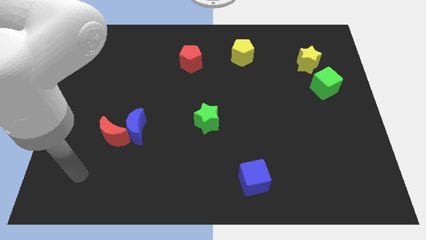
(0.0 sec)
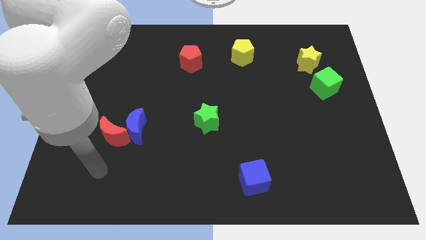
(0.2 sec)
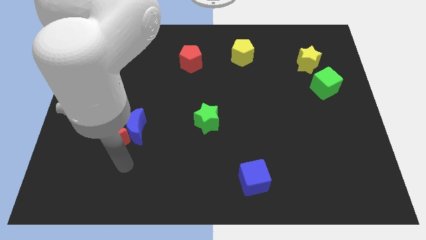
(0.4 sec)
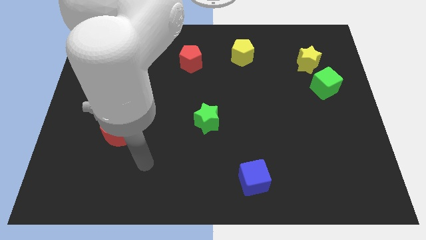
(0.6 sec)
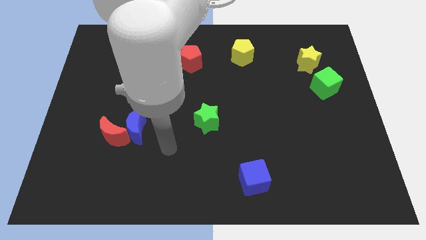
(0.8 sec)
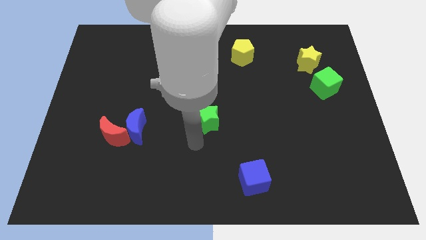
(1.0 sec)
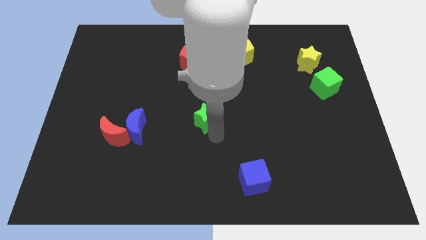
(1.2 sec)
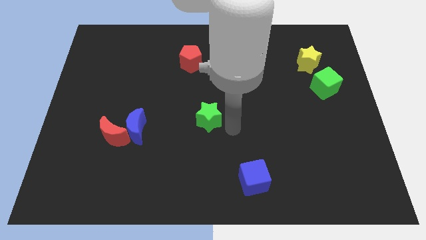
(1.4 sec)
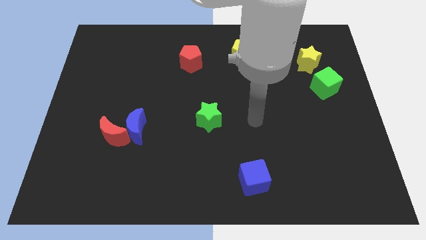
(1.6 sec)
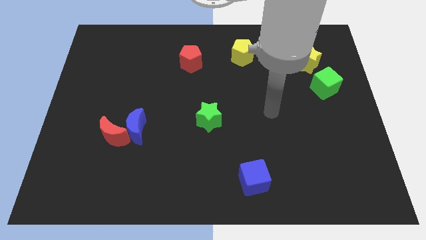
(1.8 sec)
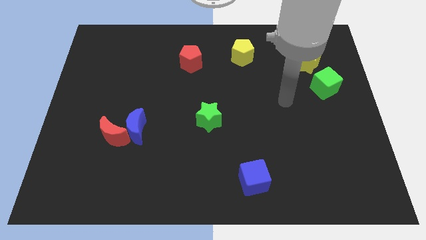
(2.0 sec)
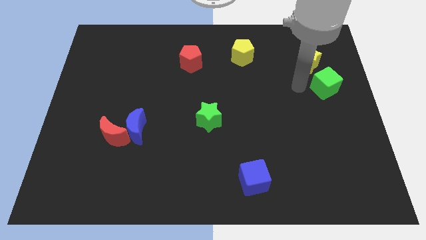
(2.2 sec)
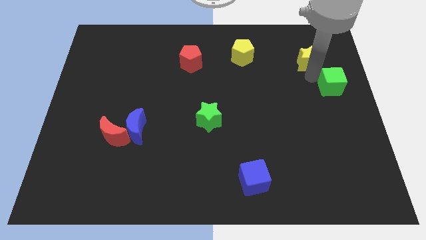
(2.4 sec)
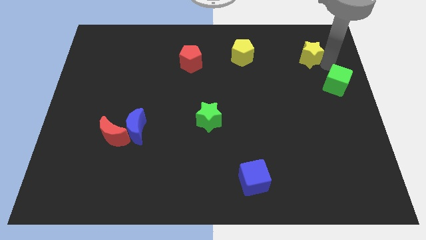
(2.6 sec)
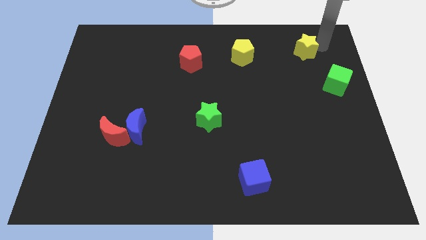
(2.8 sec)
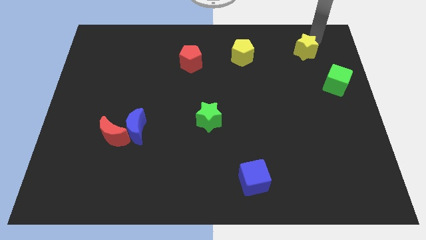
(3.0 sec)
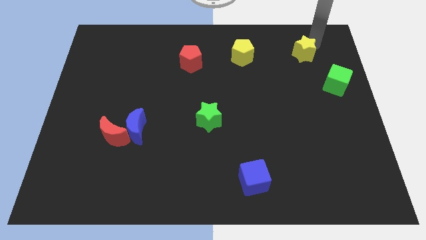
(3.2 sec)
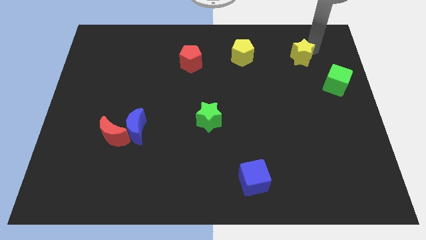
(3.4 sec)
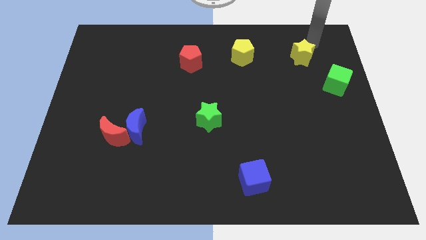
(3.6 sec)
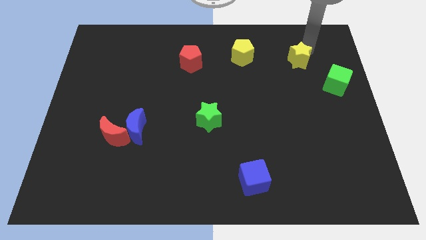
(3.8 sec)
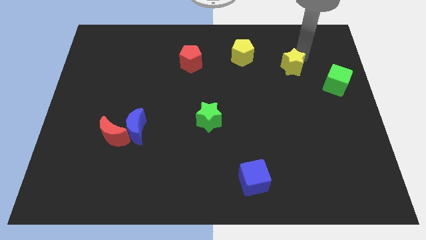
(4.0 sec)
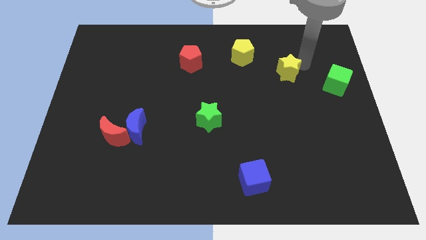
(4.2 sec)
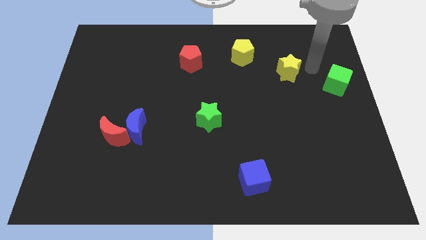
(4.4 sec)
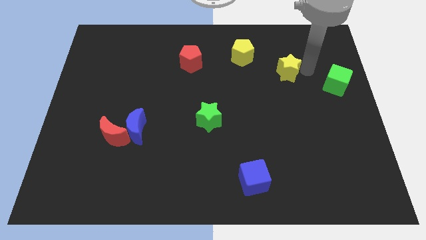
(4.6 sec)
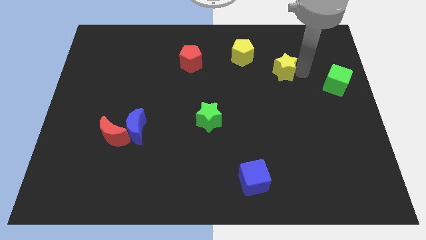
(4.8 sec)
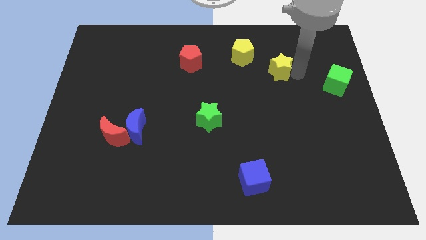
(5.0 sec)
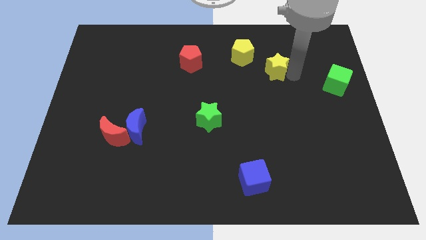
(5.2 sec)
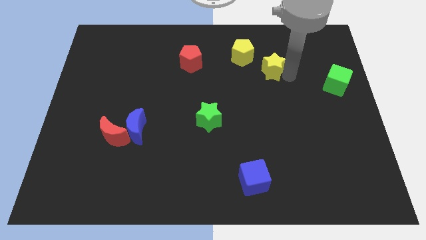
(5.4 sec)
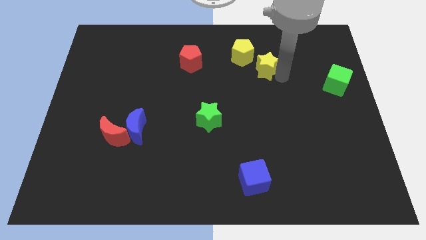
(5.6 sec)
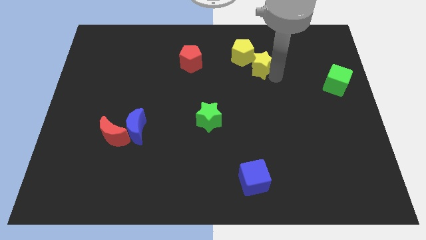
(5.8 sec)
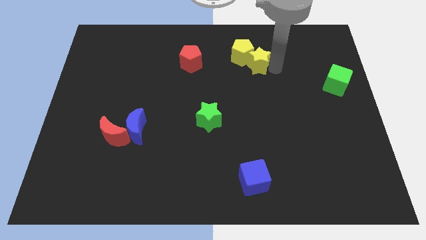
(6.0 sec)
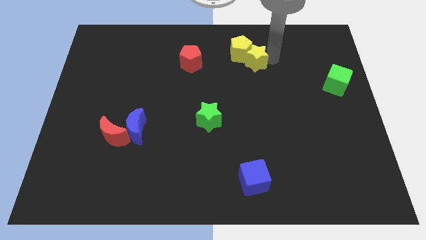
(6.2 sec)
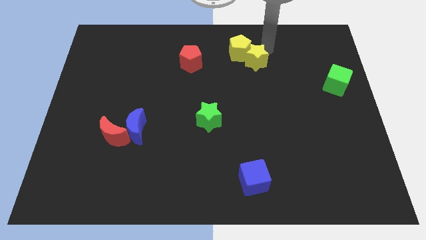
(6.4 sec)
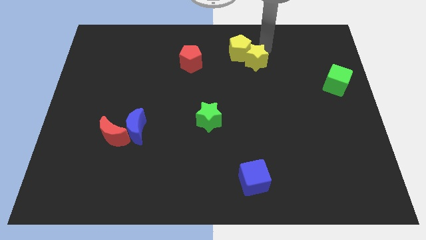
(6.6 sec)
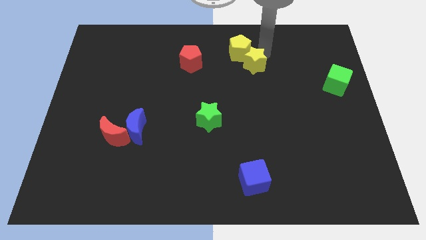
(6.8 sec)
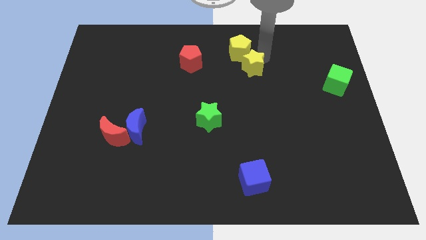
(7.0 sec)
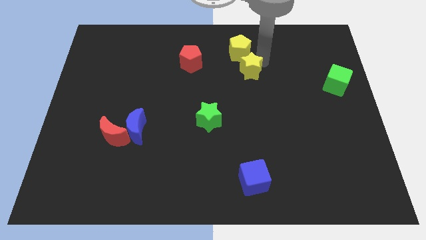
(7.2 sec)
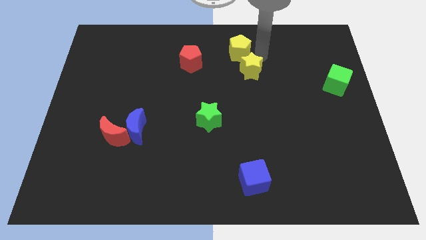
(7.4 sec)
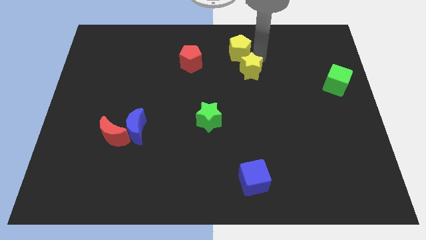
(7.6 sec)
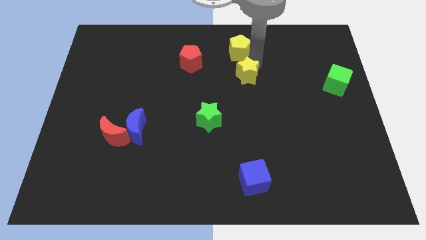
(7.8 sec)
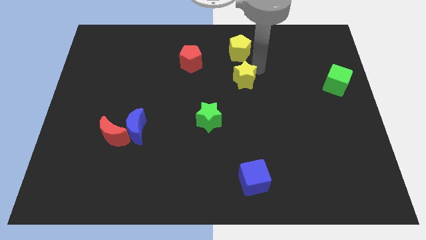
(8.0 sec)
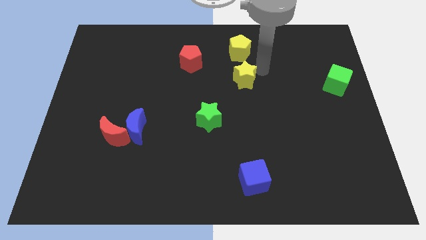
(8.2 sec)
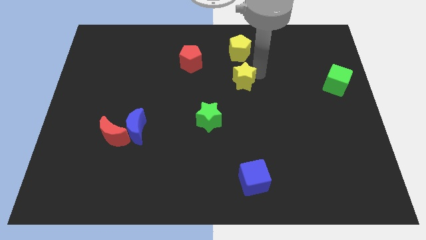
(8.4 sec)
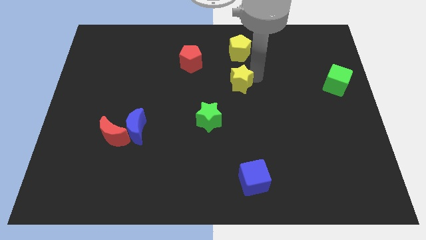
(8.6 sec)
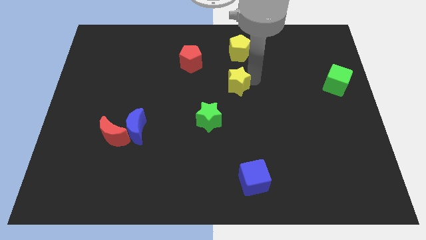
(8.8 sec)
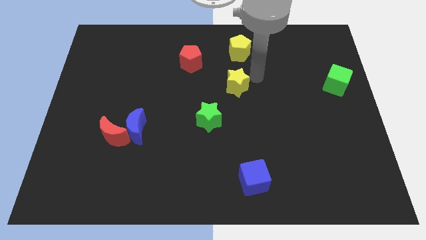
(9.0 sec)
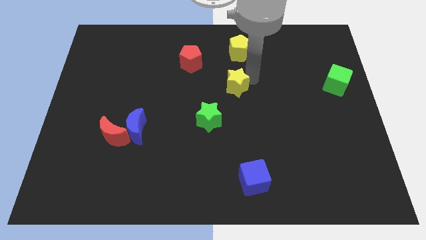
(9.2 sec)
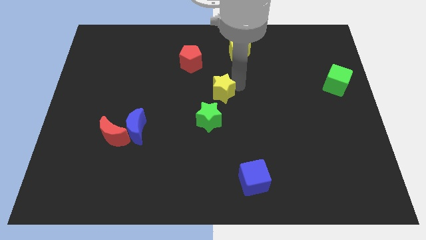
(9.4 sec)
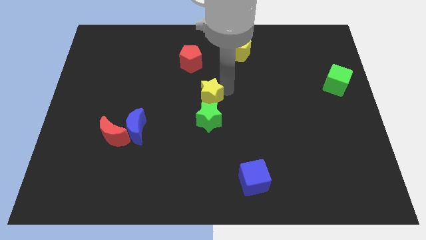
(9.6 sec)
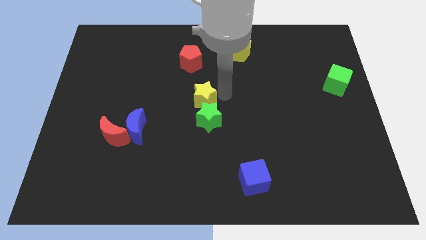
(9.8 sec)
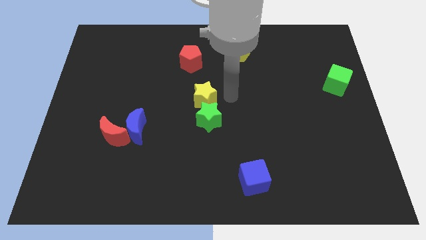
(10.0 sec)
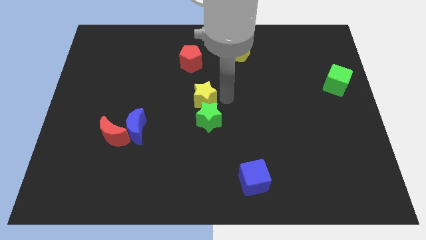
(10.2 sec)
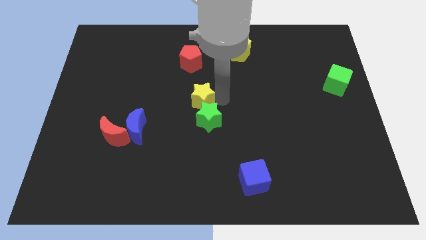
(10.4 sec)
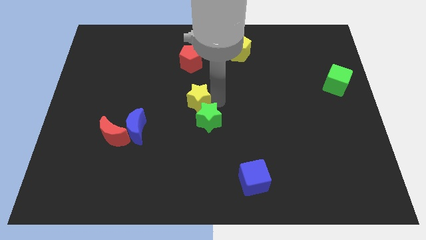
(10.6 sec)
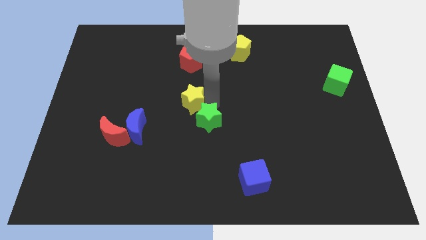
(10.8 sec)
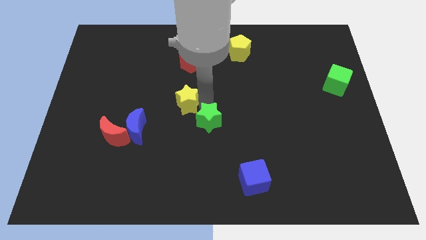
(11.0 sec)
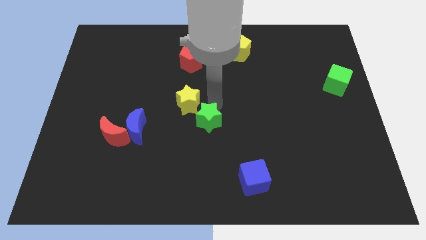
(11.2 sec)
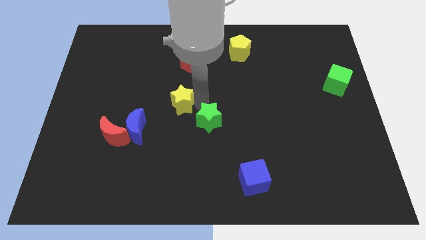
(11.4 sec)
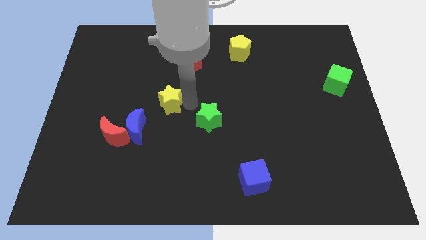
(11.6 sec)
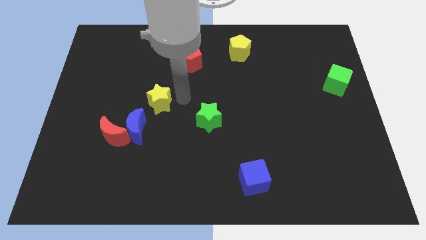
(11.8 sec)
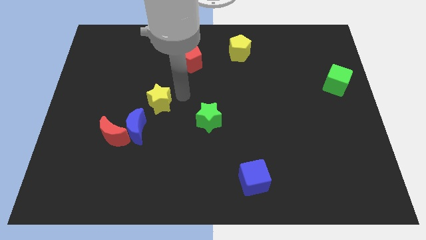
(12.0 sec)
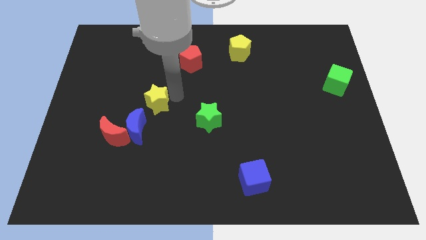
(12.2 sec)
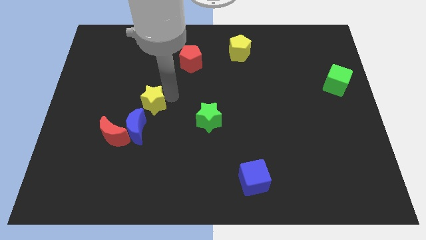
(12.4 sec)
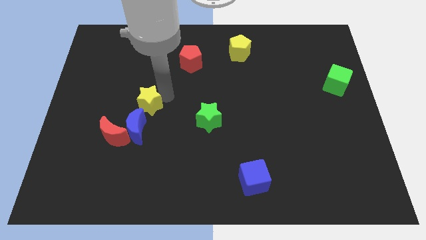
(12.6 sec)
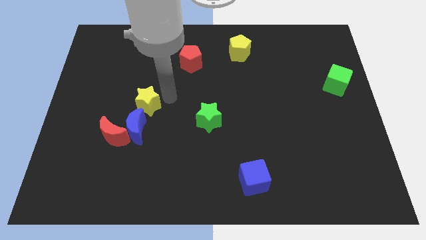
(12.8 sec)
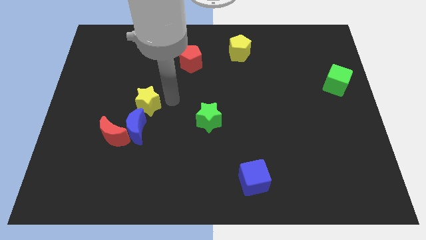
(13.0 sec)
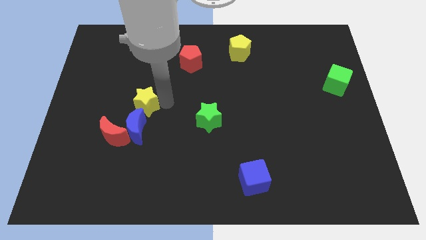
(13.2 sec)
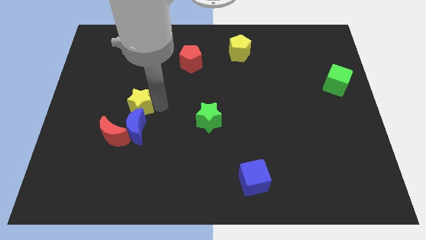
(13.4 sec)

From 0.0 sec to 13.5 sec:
move the yellow star to the top left of the blue moon

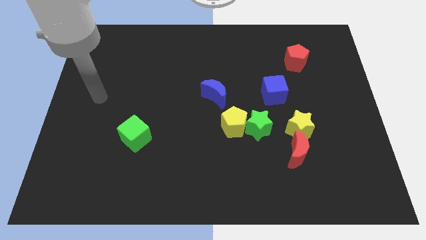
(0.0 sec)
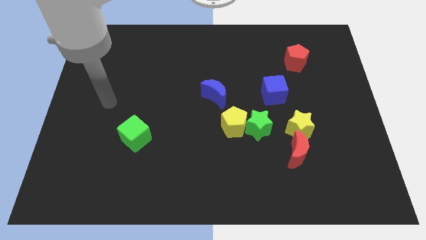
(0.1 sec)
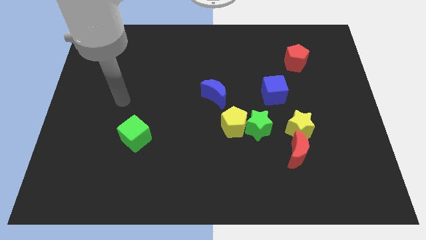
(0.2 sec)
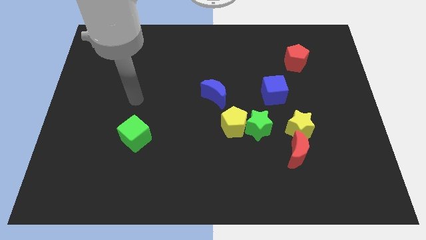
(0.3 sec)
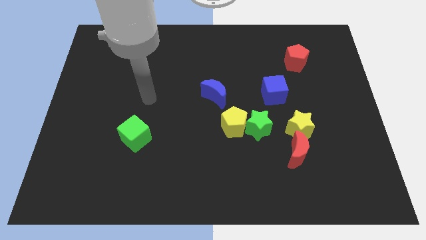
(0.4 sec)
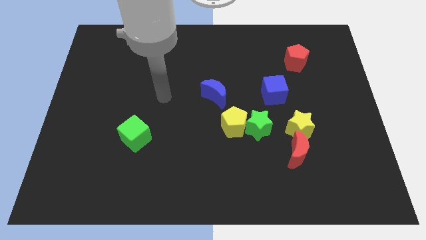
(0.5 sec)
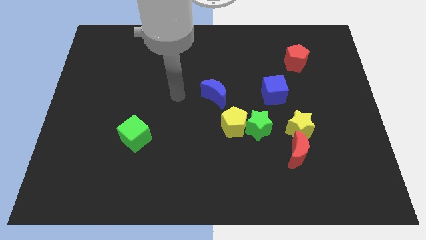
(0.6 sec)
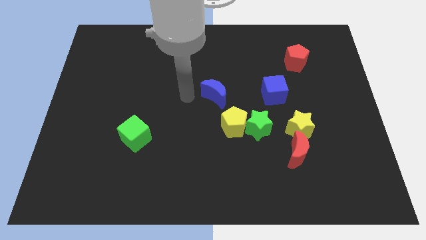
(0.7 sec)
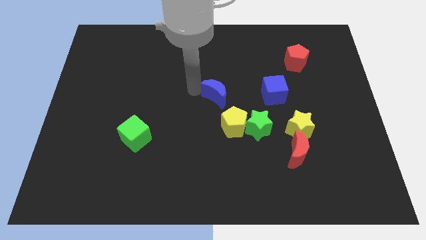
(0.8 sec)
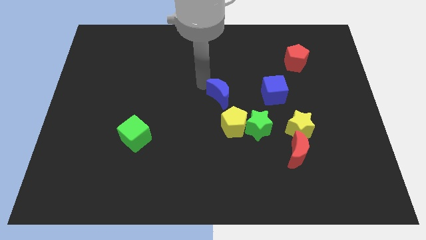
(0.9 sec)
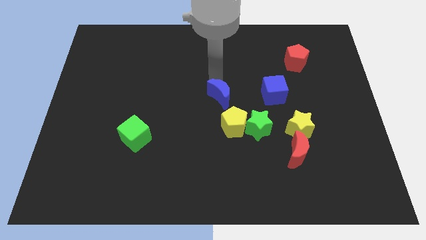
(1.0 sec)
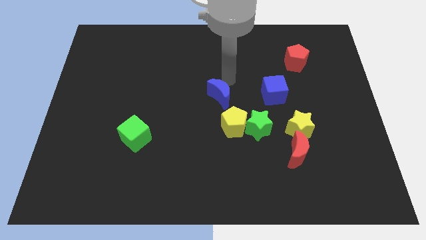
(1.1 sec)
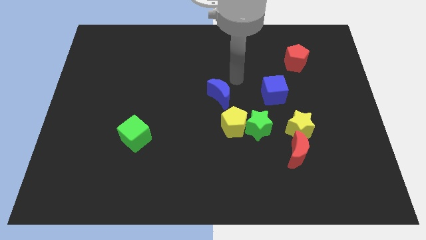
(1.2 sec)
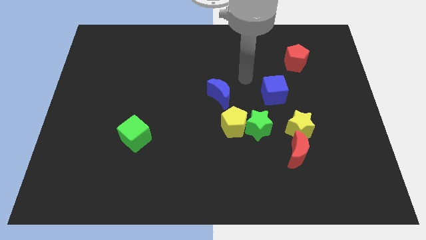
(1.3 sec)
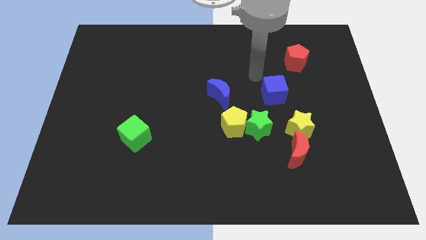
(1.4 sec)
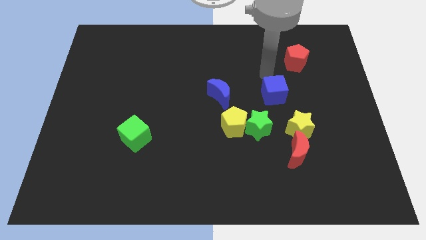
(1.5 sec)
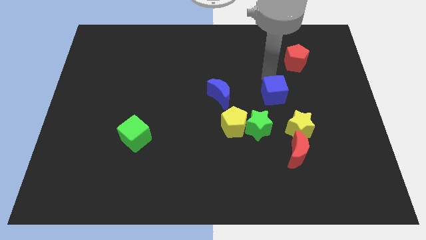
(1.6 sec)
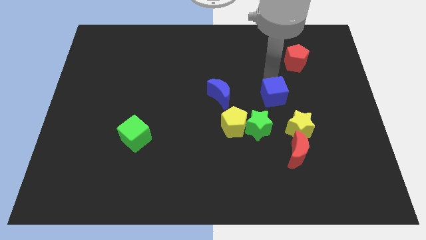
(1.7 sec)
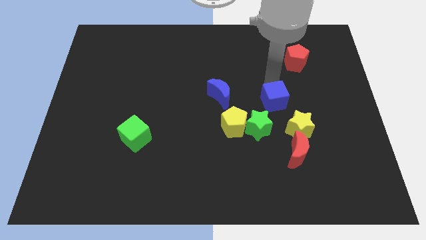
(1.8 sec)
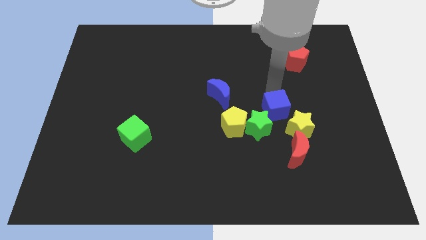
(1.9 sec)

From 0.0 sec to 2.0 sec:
move the blue cube to the right of the yellow pentagon
